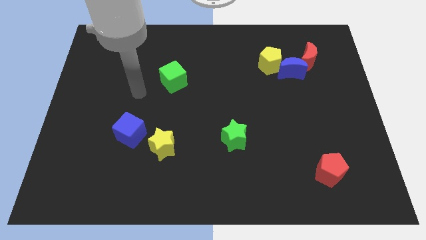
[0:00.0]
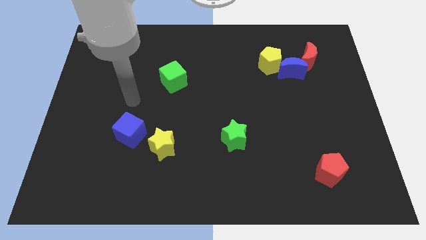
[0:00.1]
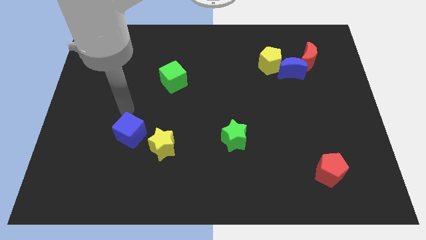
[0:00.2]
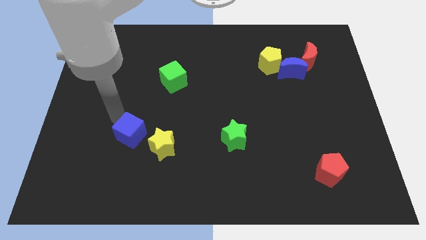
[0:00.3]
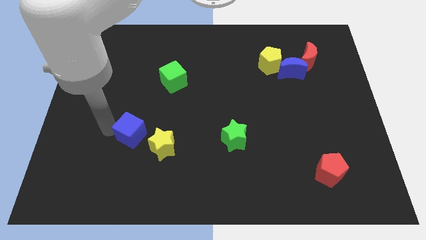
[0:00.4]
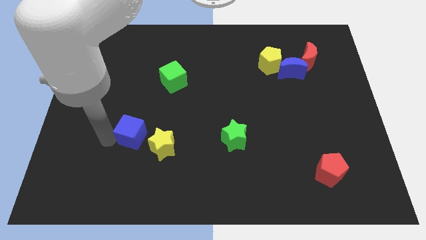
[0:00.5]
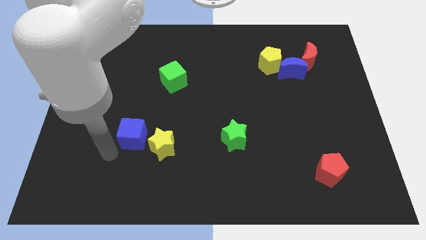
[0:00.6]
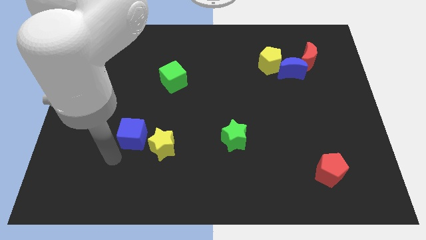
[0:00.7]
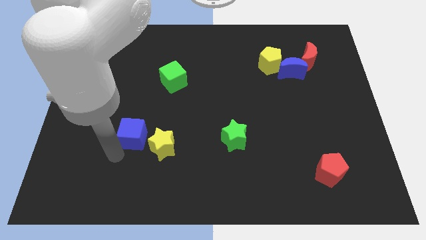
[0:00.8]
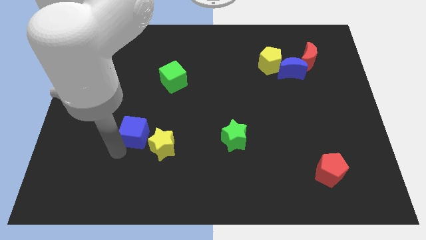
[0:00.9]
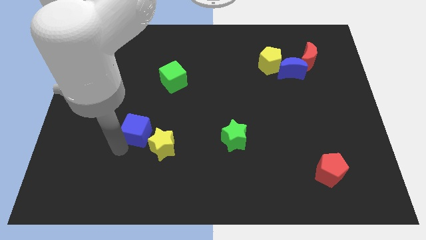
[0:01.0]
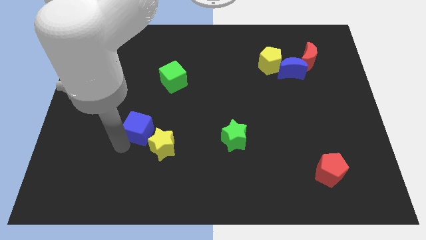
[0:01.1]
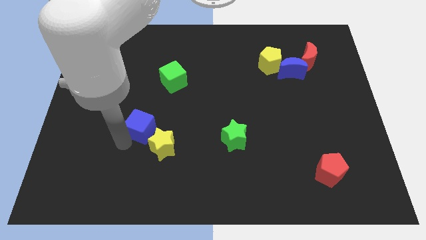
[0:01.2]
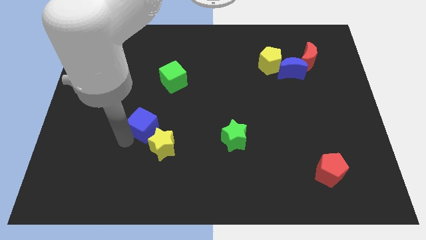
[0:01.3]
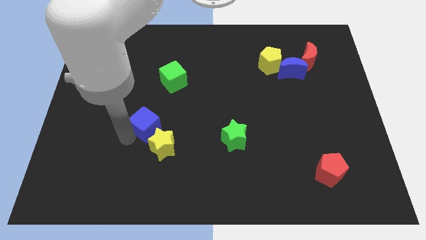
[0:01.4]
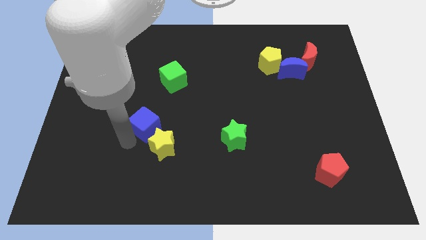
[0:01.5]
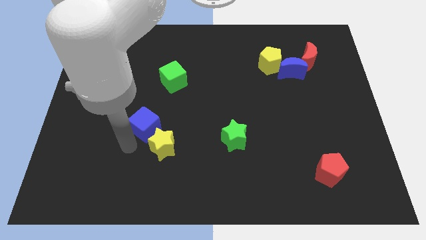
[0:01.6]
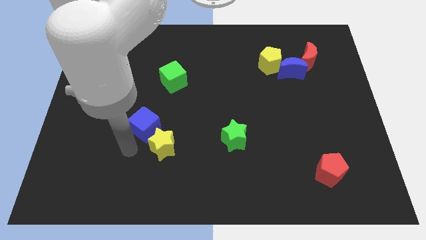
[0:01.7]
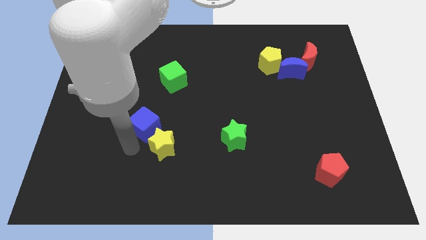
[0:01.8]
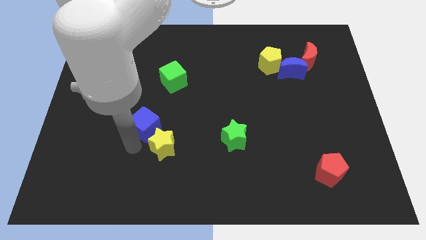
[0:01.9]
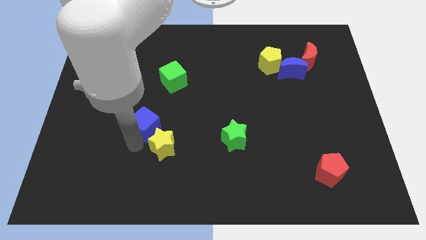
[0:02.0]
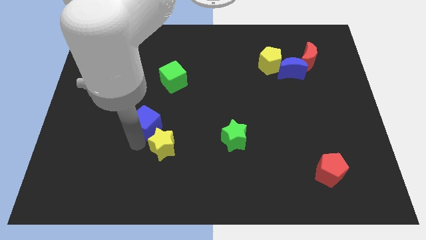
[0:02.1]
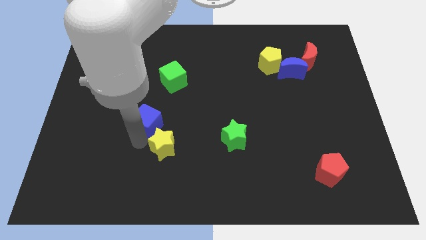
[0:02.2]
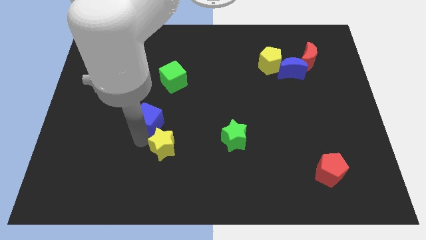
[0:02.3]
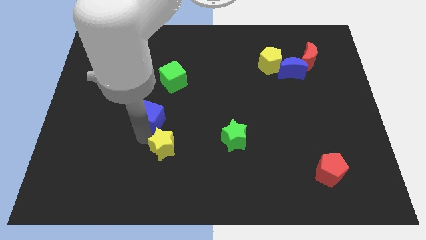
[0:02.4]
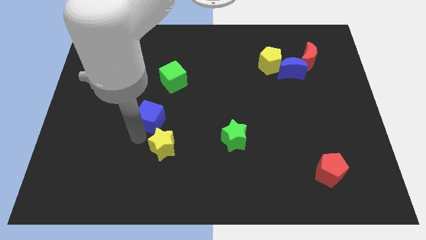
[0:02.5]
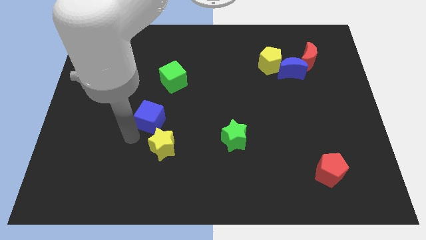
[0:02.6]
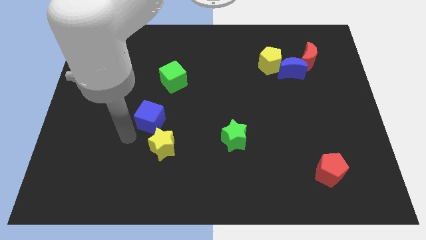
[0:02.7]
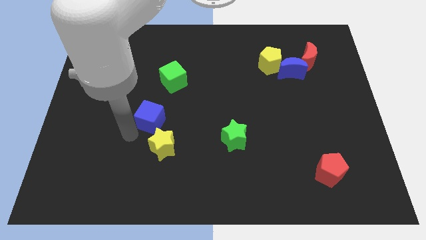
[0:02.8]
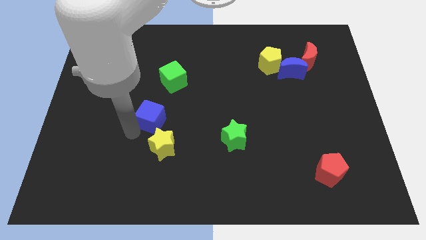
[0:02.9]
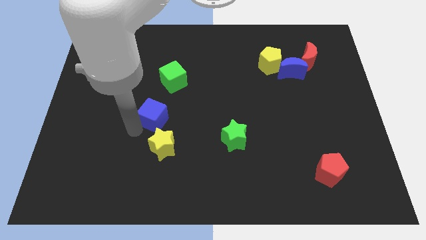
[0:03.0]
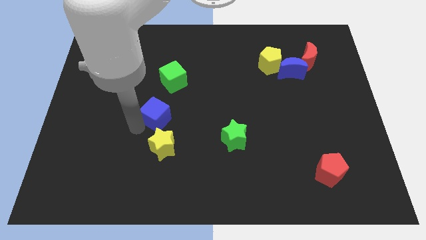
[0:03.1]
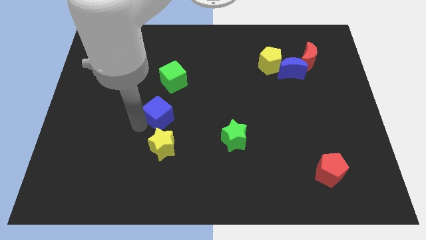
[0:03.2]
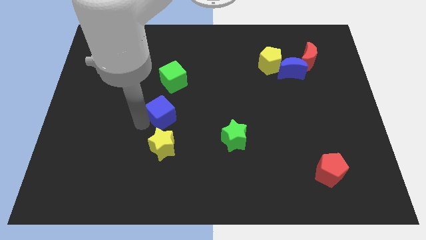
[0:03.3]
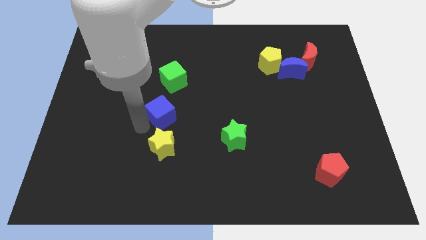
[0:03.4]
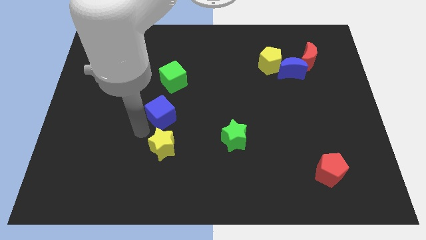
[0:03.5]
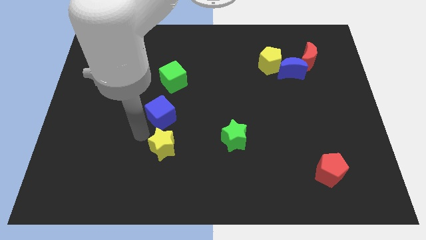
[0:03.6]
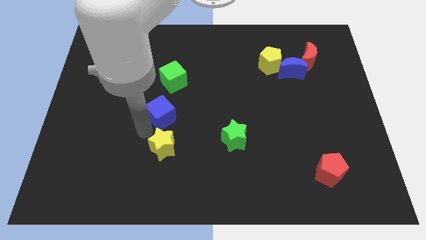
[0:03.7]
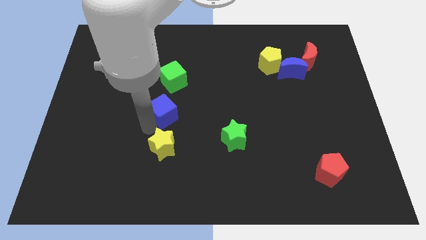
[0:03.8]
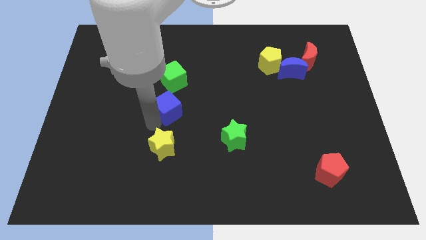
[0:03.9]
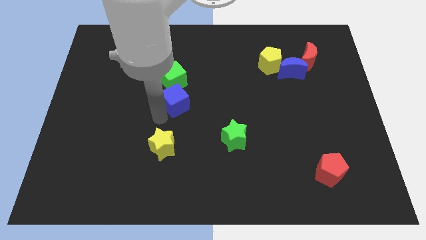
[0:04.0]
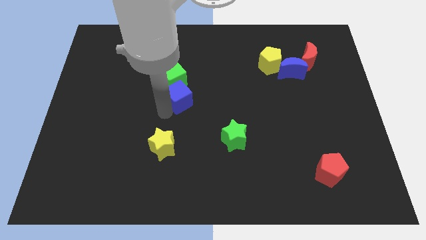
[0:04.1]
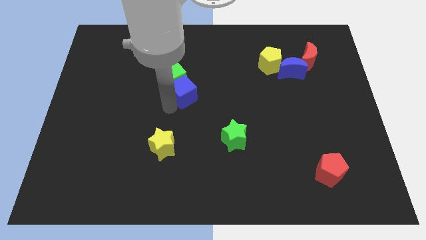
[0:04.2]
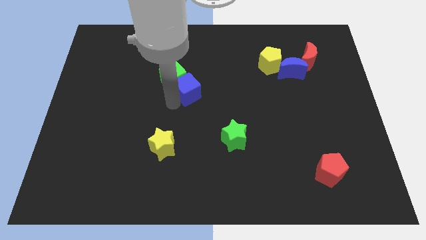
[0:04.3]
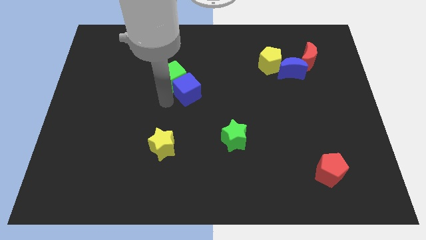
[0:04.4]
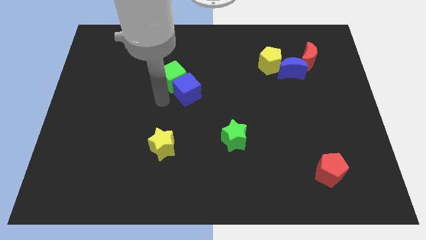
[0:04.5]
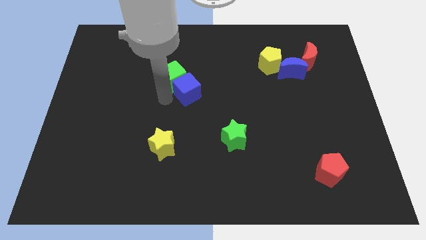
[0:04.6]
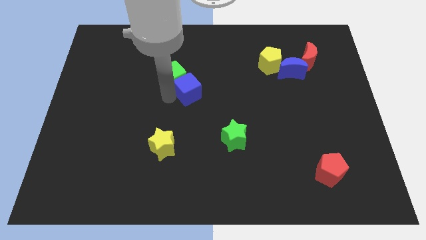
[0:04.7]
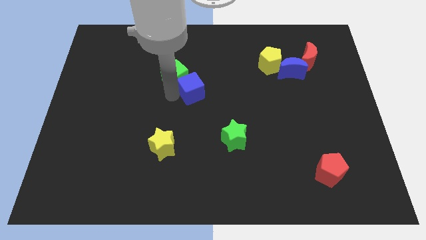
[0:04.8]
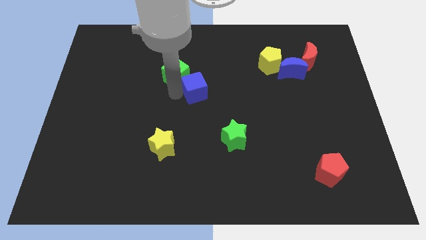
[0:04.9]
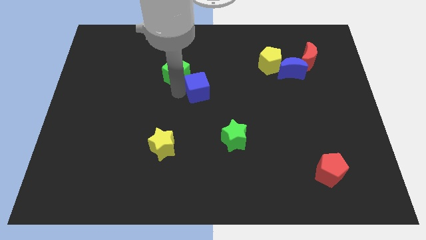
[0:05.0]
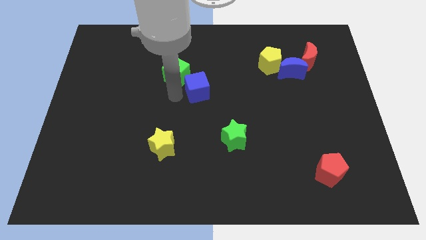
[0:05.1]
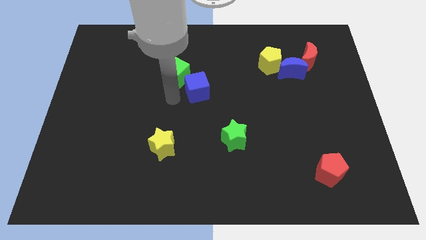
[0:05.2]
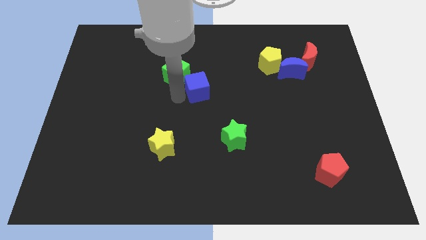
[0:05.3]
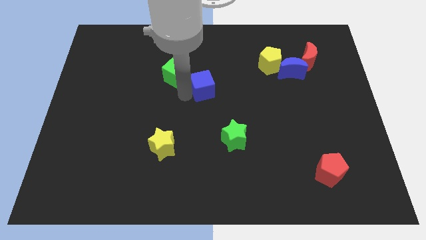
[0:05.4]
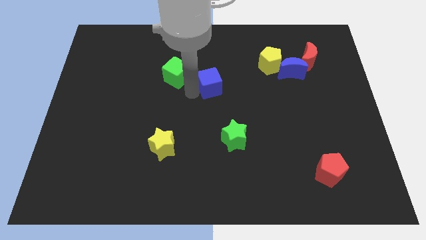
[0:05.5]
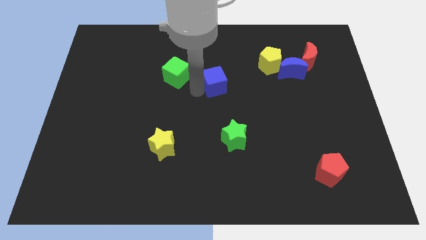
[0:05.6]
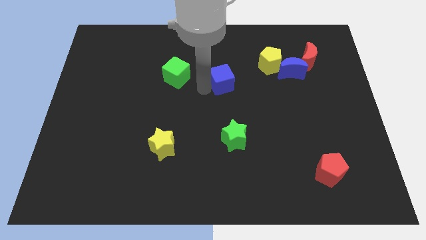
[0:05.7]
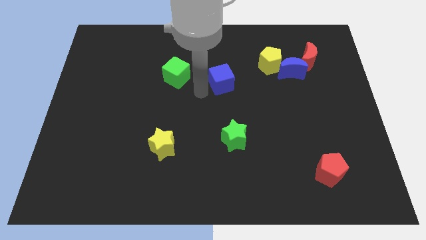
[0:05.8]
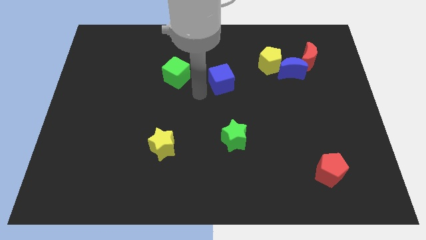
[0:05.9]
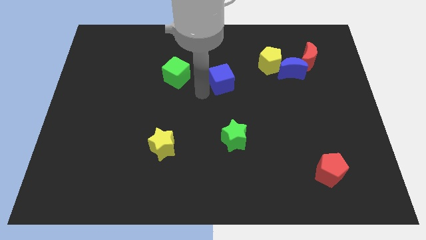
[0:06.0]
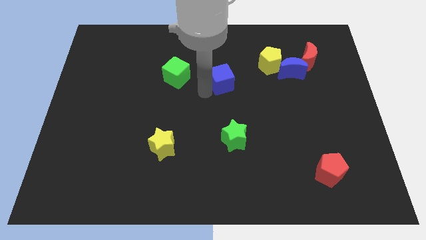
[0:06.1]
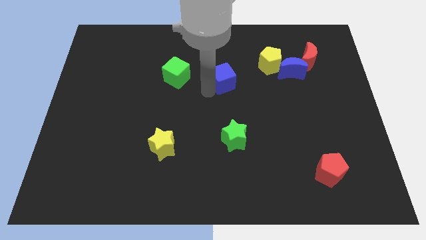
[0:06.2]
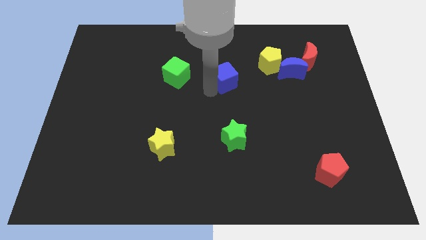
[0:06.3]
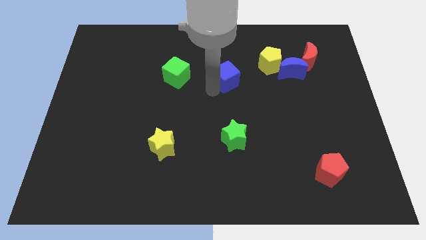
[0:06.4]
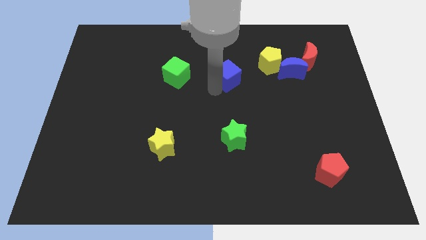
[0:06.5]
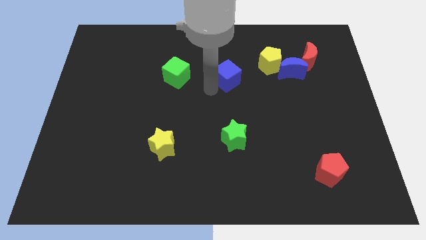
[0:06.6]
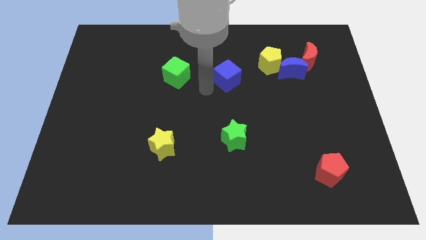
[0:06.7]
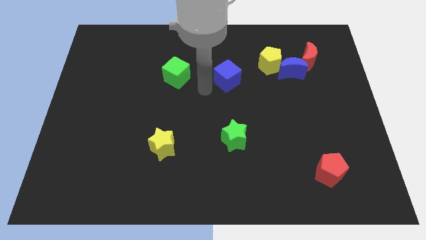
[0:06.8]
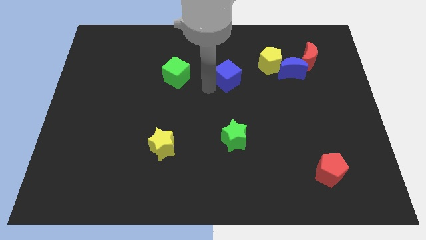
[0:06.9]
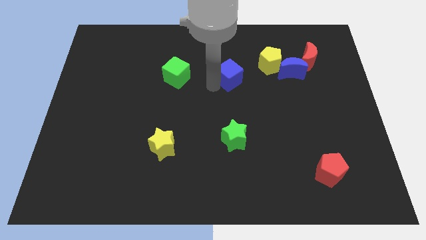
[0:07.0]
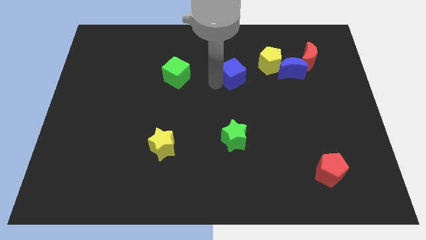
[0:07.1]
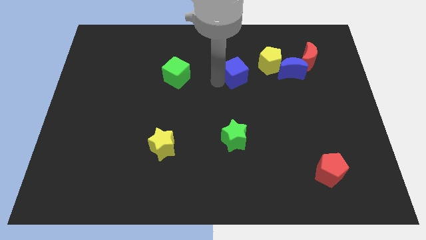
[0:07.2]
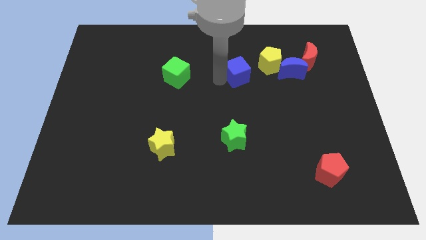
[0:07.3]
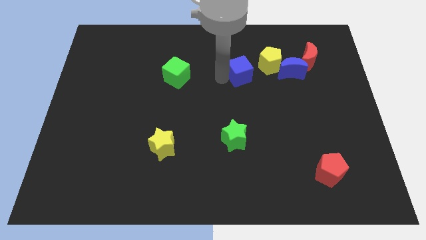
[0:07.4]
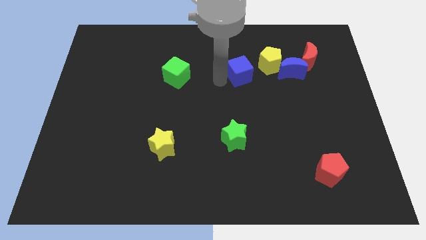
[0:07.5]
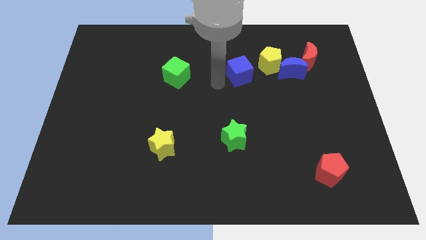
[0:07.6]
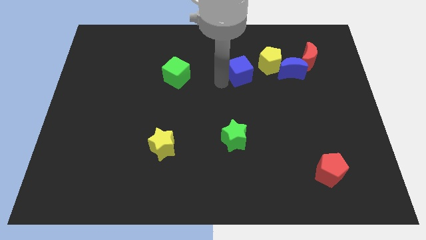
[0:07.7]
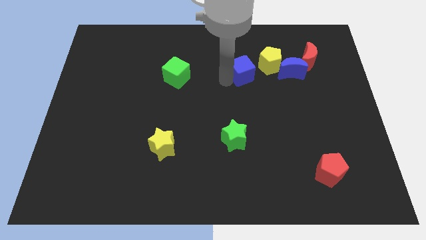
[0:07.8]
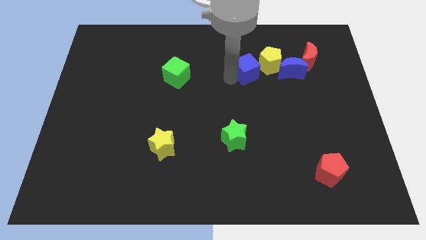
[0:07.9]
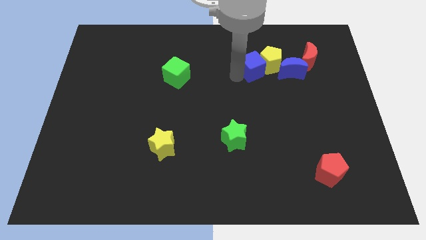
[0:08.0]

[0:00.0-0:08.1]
move the blue cube towards the yellow pentagon
